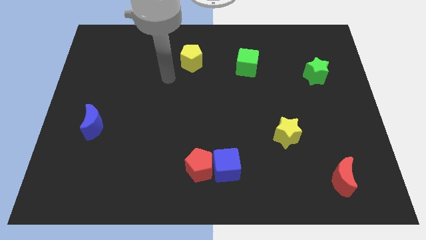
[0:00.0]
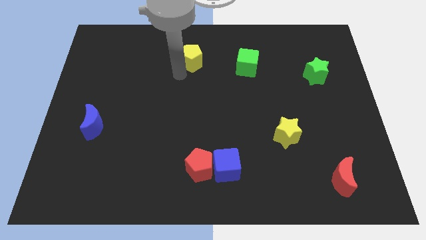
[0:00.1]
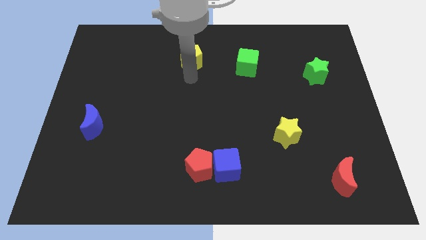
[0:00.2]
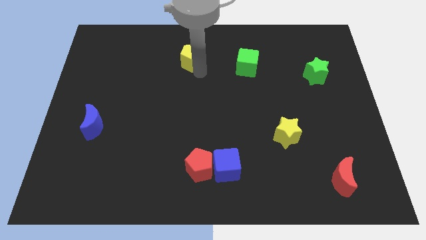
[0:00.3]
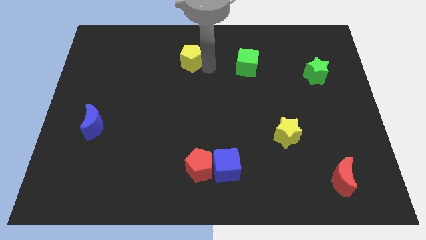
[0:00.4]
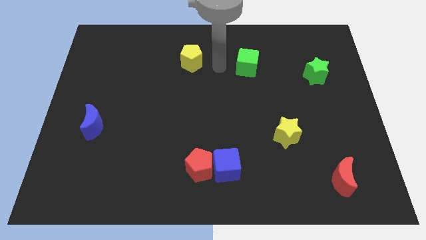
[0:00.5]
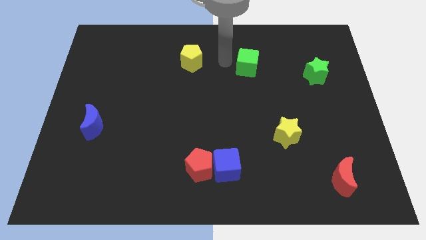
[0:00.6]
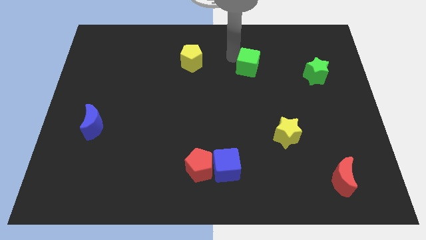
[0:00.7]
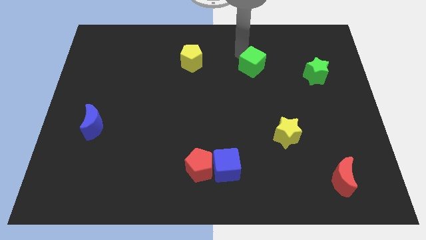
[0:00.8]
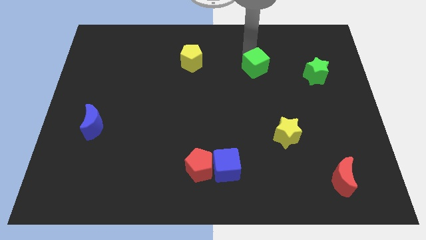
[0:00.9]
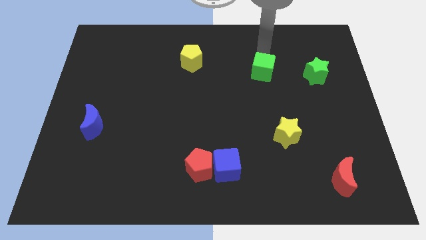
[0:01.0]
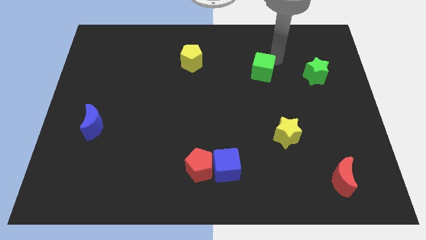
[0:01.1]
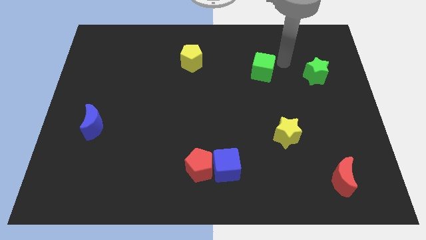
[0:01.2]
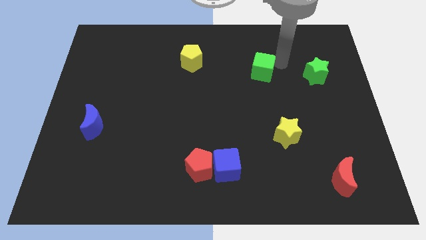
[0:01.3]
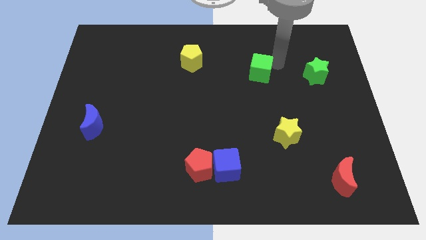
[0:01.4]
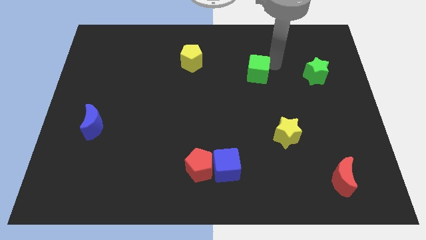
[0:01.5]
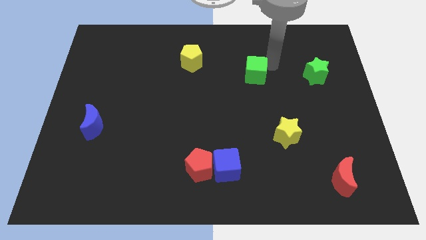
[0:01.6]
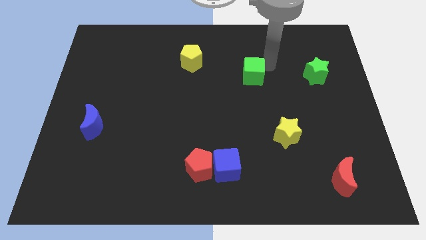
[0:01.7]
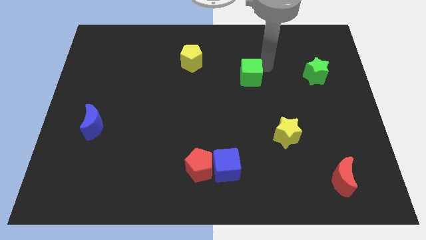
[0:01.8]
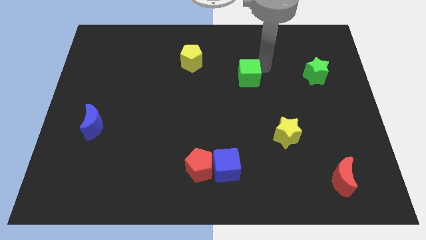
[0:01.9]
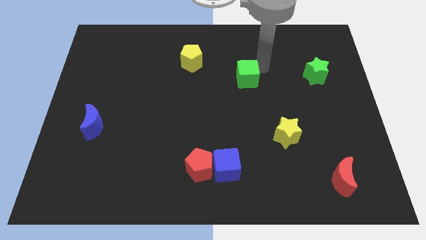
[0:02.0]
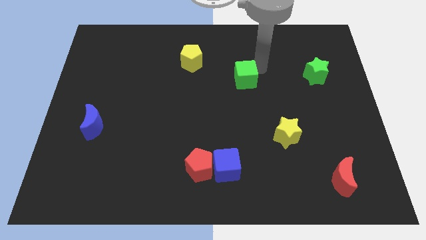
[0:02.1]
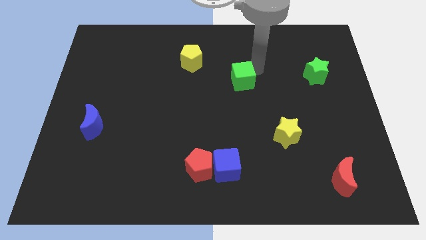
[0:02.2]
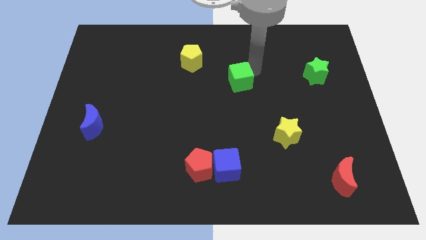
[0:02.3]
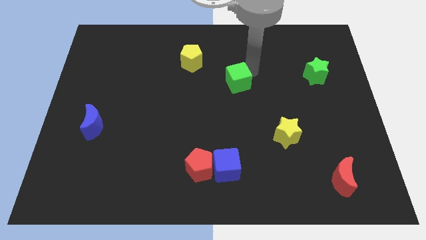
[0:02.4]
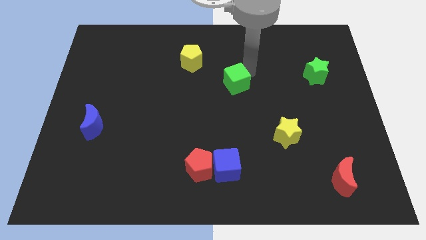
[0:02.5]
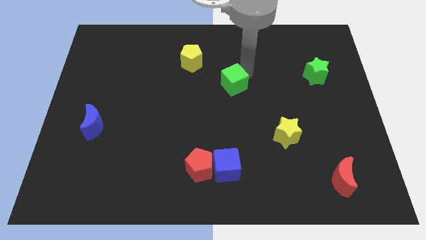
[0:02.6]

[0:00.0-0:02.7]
push the green cube downwards and left somewhat

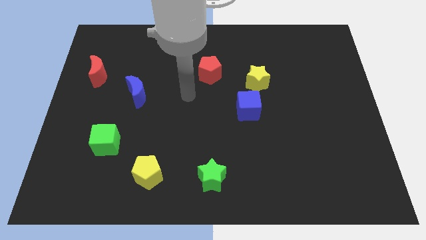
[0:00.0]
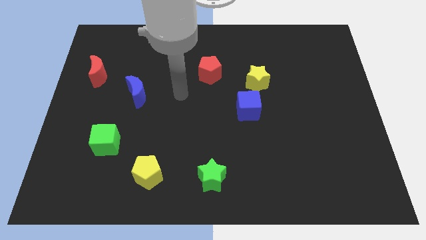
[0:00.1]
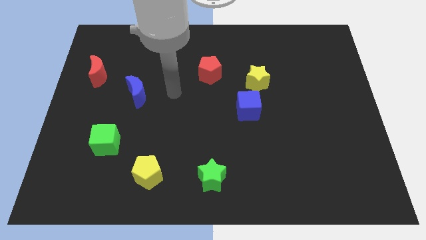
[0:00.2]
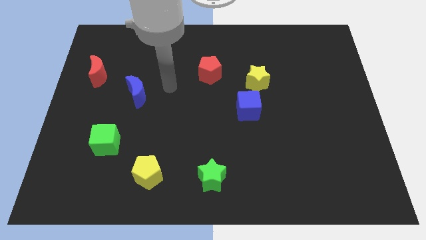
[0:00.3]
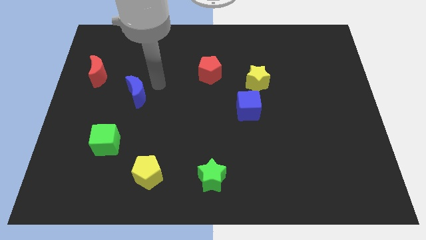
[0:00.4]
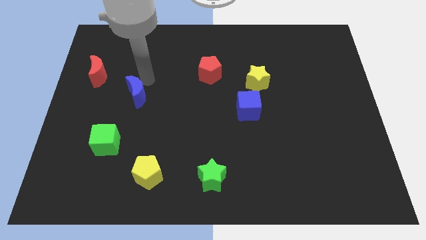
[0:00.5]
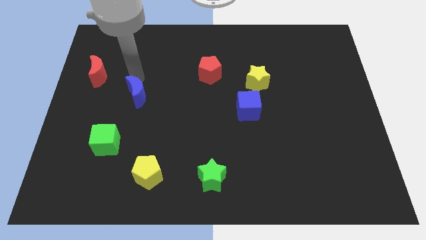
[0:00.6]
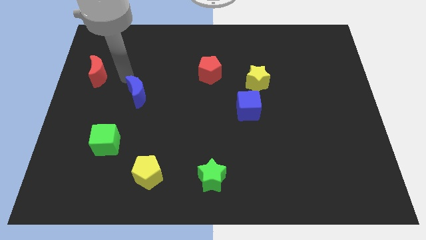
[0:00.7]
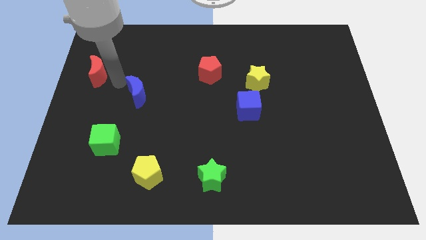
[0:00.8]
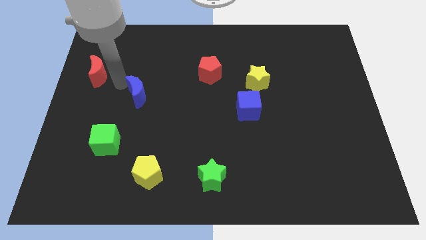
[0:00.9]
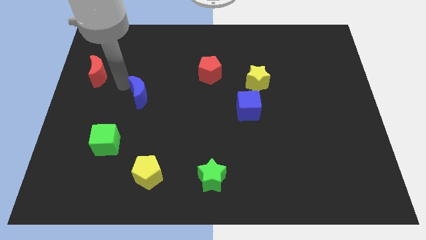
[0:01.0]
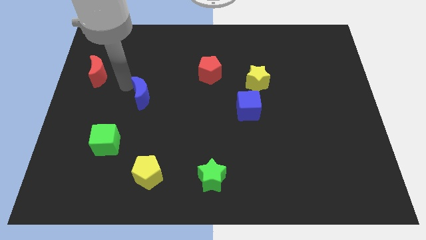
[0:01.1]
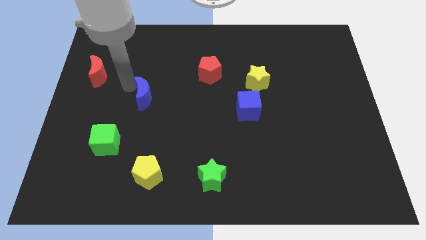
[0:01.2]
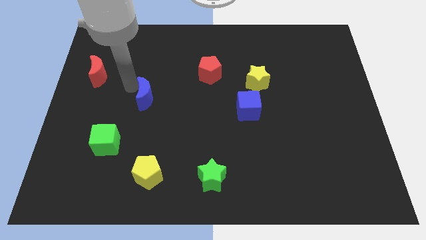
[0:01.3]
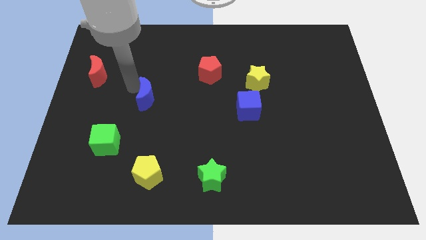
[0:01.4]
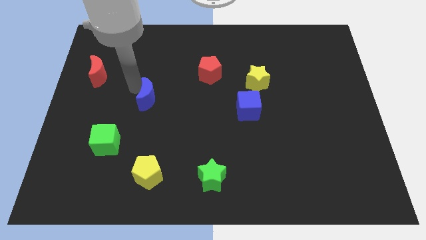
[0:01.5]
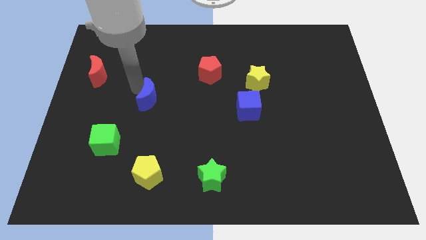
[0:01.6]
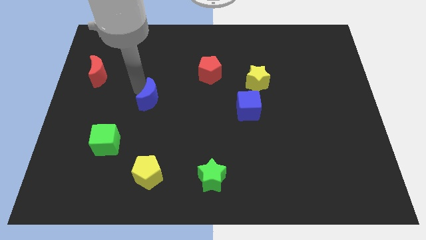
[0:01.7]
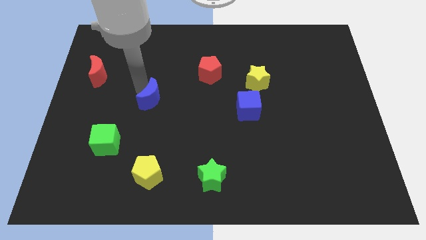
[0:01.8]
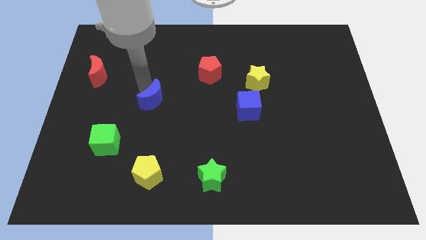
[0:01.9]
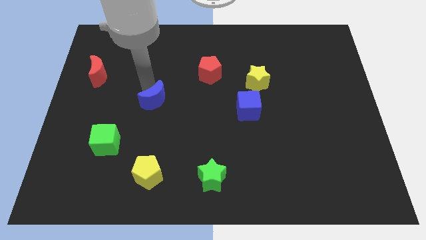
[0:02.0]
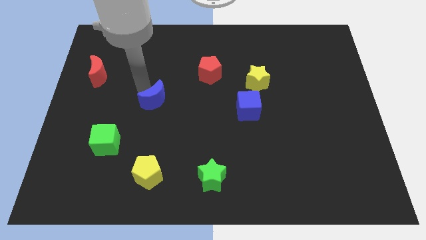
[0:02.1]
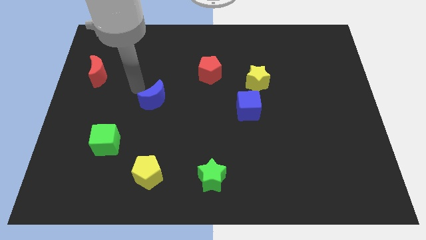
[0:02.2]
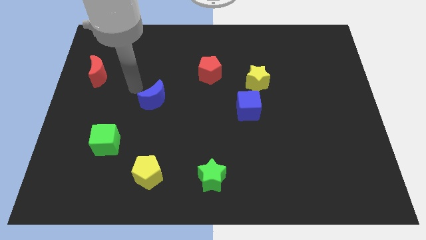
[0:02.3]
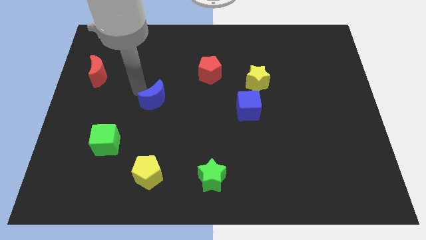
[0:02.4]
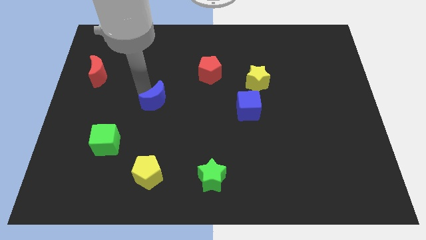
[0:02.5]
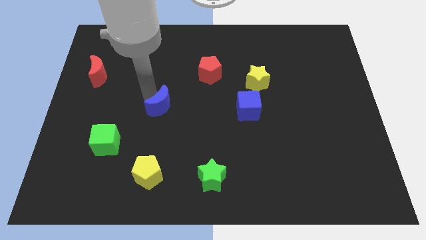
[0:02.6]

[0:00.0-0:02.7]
slightly push the blue moon down and then right

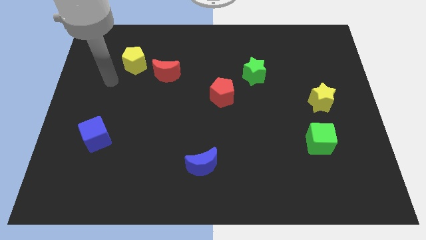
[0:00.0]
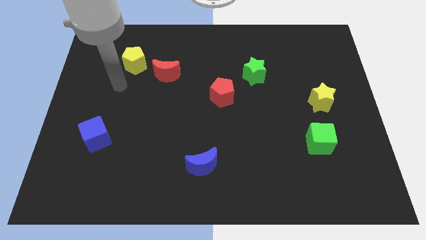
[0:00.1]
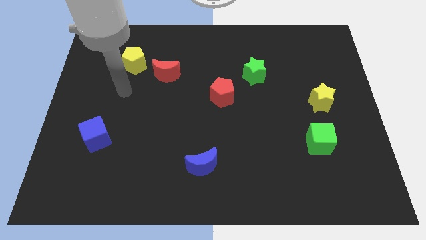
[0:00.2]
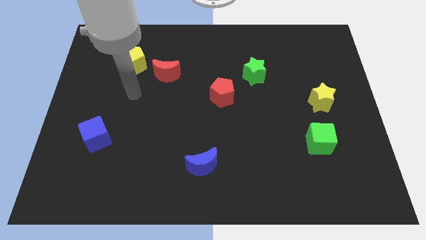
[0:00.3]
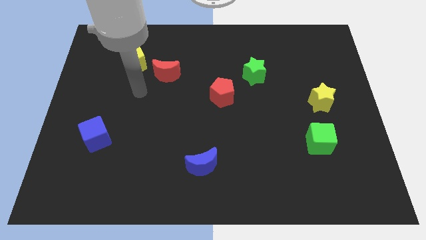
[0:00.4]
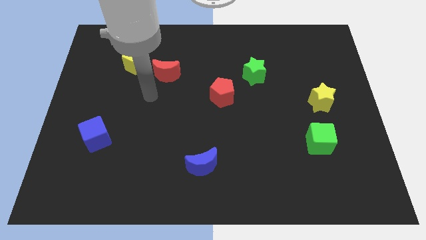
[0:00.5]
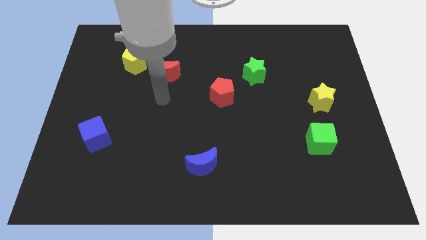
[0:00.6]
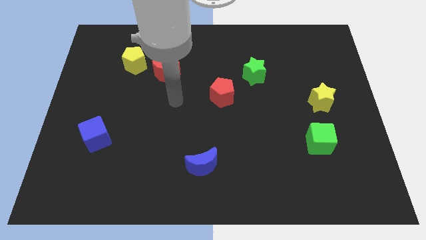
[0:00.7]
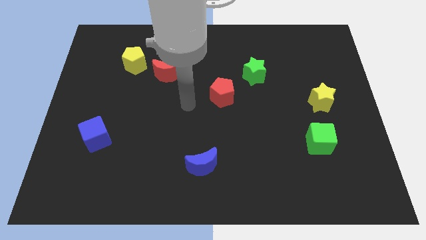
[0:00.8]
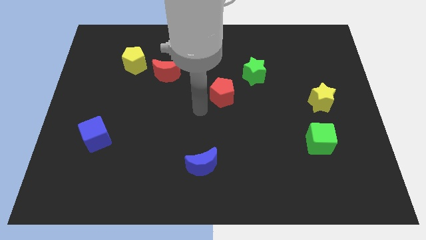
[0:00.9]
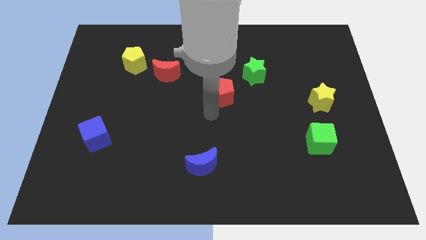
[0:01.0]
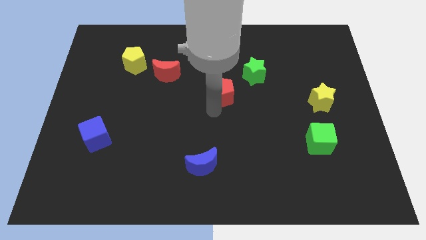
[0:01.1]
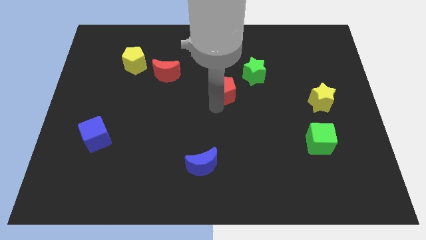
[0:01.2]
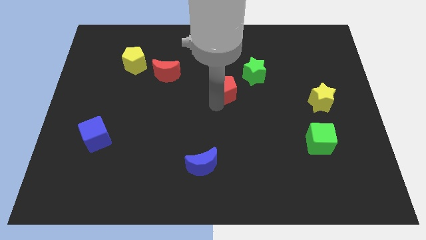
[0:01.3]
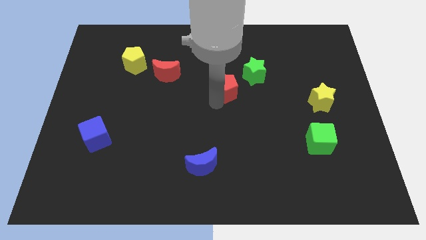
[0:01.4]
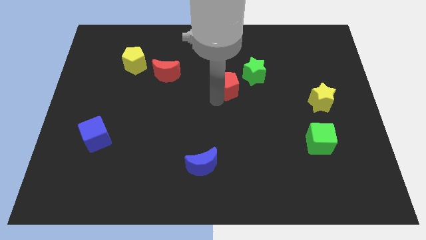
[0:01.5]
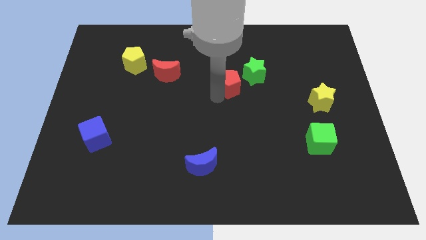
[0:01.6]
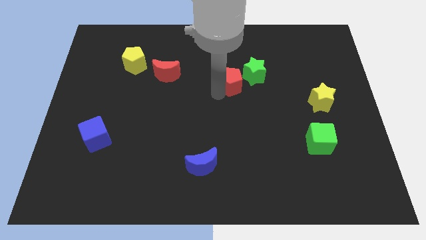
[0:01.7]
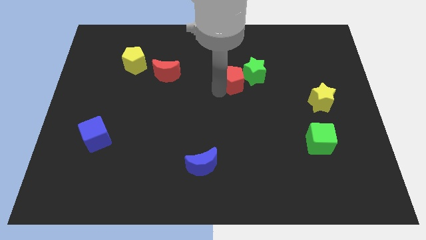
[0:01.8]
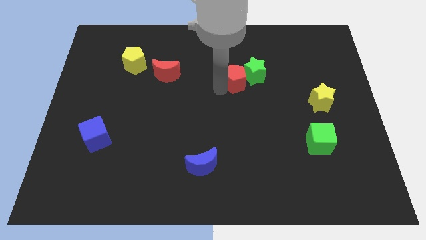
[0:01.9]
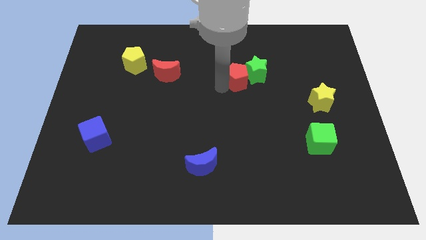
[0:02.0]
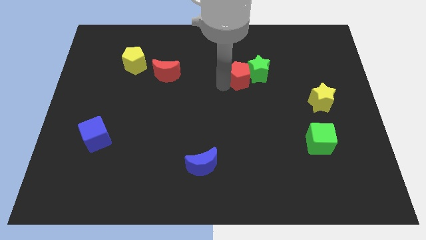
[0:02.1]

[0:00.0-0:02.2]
slightly slide the red pentagon up and then right

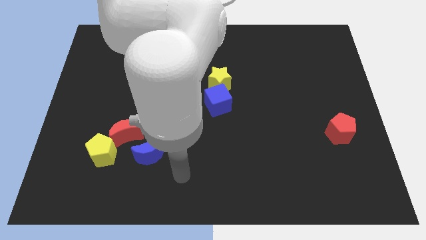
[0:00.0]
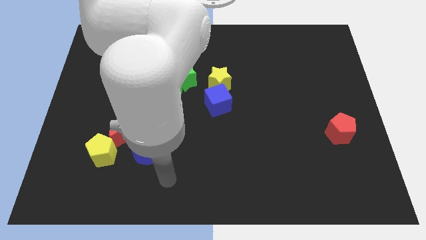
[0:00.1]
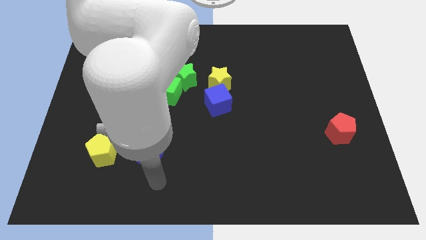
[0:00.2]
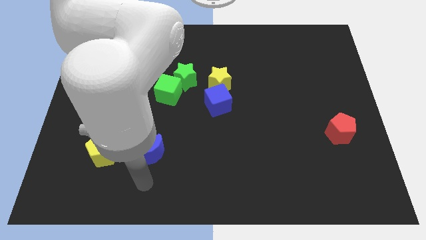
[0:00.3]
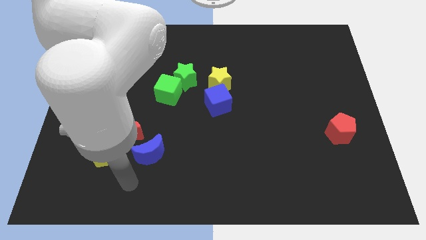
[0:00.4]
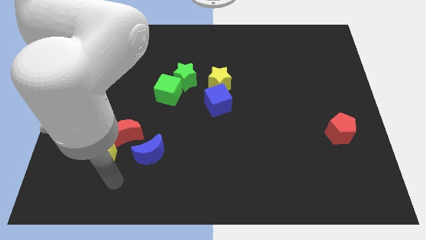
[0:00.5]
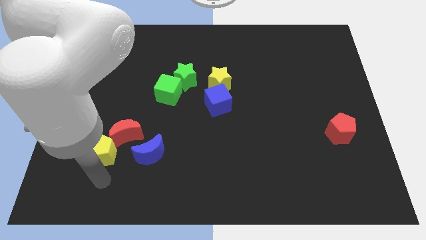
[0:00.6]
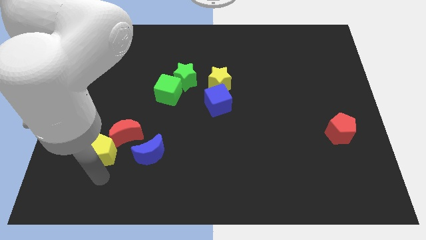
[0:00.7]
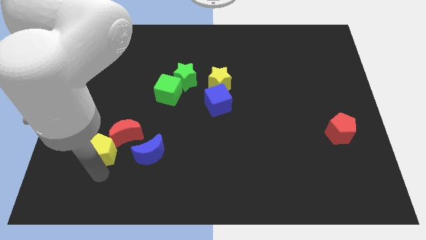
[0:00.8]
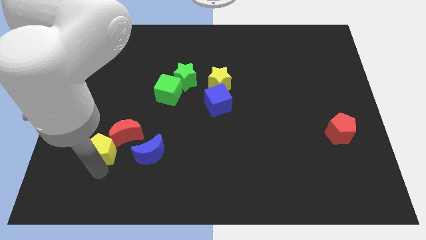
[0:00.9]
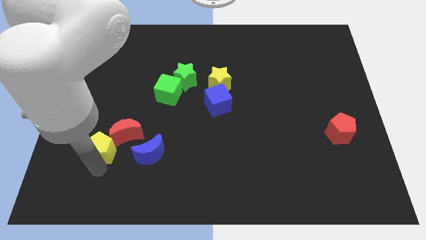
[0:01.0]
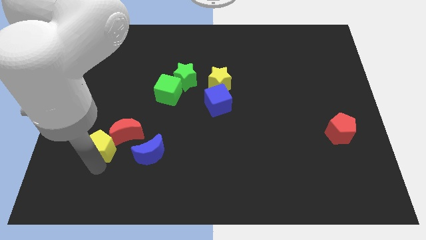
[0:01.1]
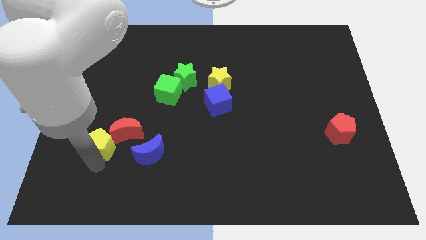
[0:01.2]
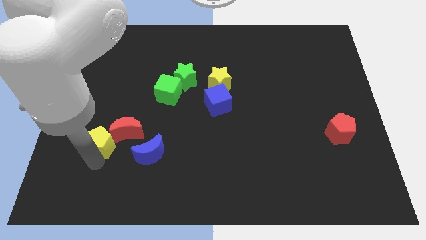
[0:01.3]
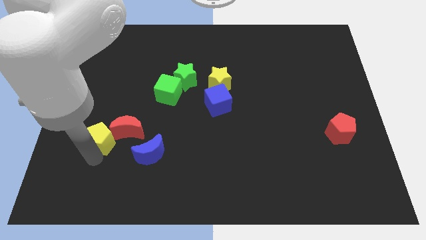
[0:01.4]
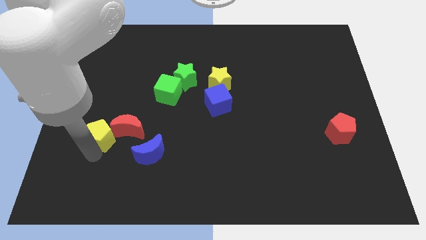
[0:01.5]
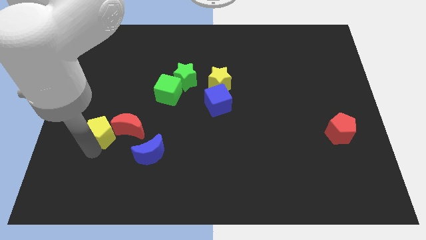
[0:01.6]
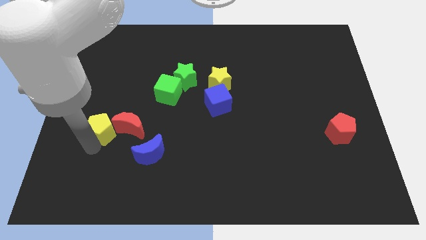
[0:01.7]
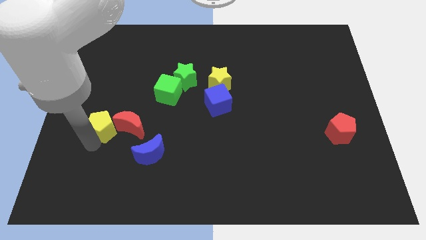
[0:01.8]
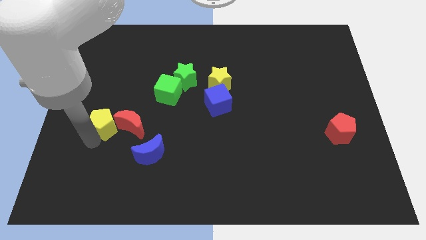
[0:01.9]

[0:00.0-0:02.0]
slide the yellow pentagon upwards a bit
